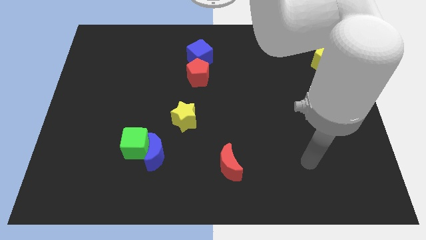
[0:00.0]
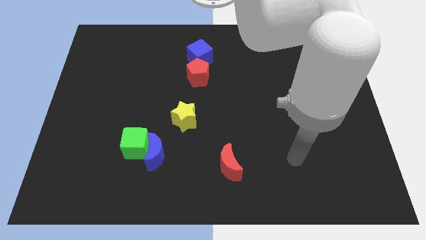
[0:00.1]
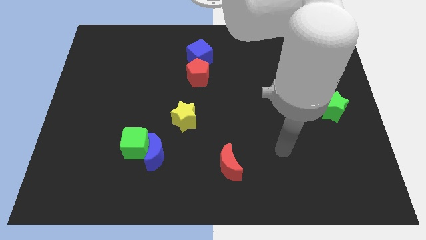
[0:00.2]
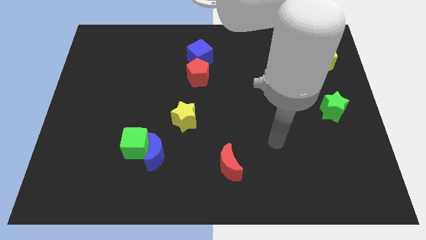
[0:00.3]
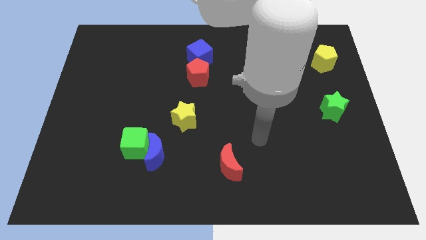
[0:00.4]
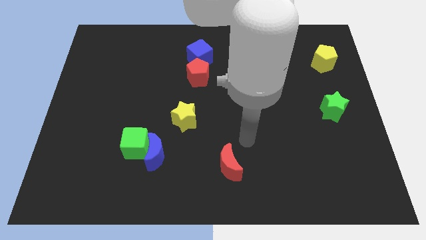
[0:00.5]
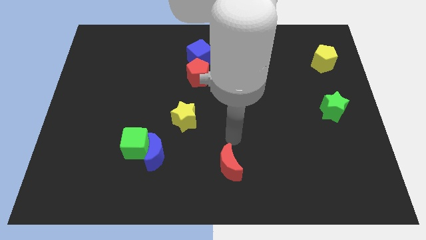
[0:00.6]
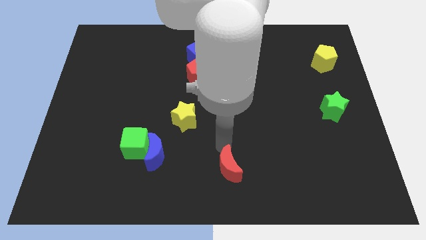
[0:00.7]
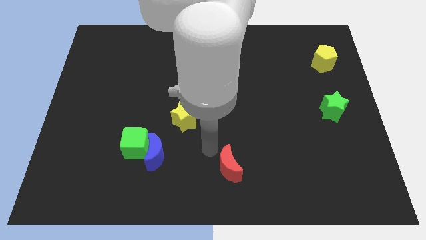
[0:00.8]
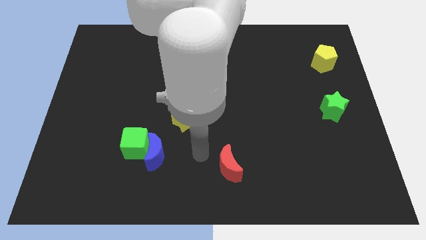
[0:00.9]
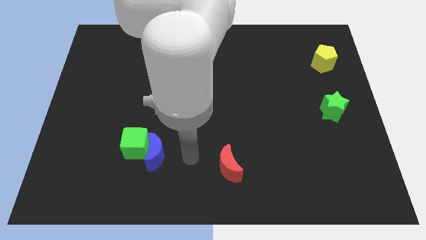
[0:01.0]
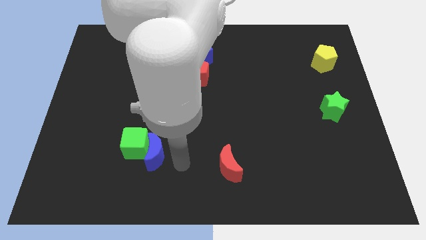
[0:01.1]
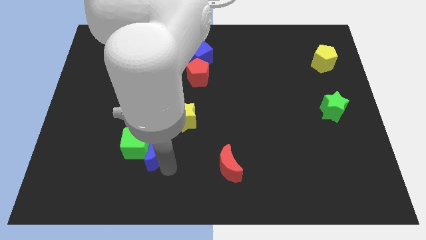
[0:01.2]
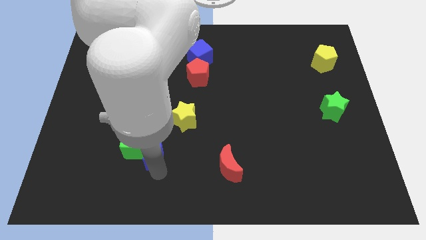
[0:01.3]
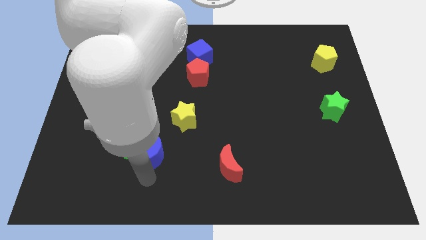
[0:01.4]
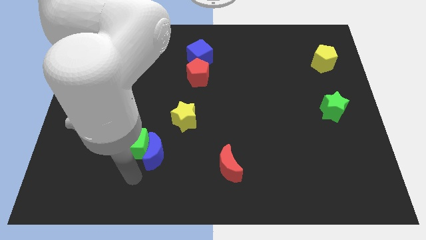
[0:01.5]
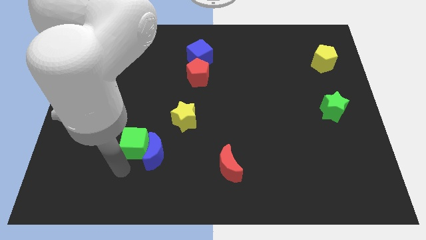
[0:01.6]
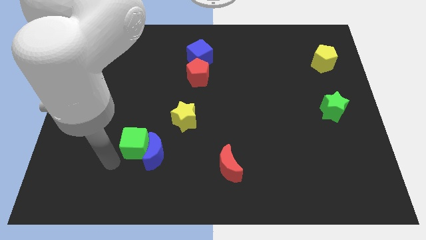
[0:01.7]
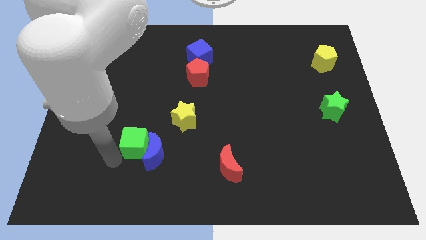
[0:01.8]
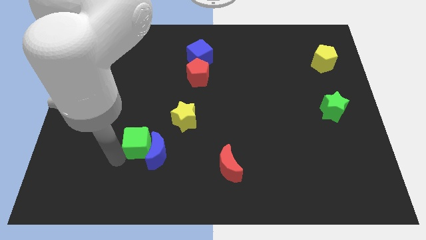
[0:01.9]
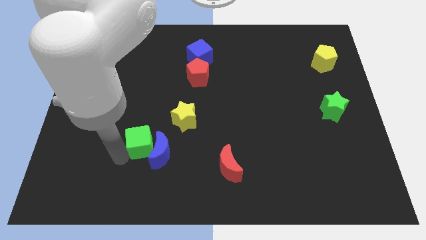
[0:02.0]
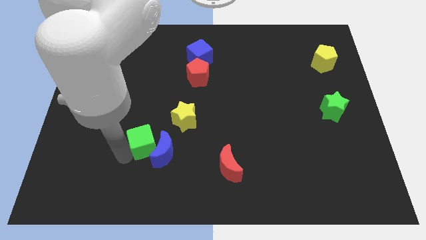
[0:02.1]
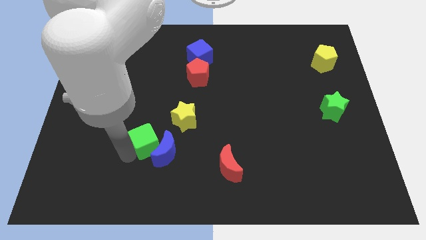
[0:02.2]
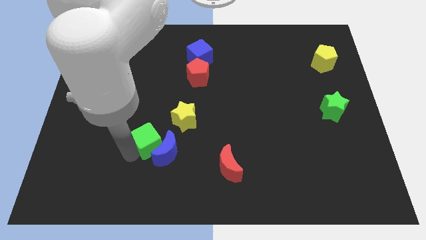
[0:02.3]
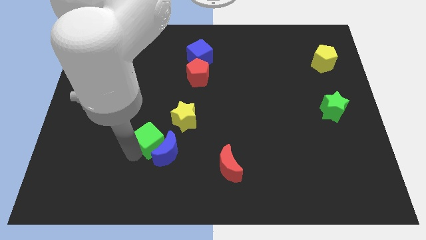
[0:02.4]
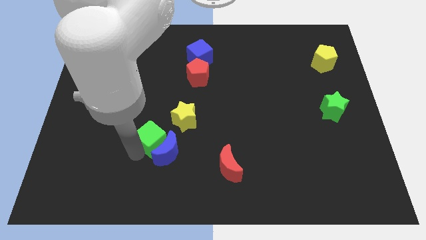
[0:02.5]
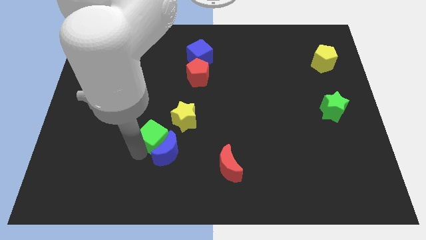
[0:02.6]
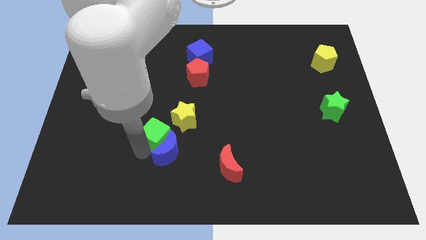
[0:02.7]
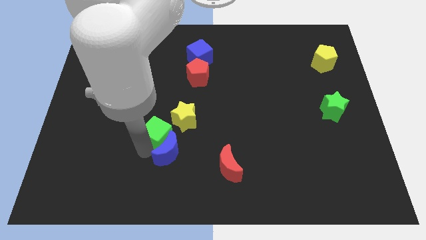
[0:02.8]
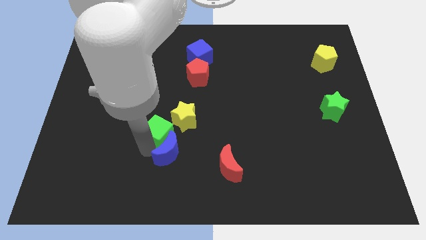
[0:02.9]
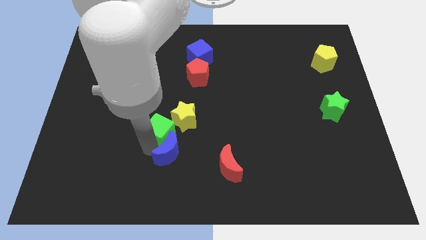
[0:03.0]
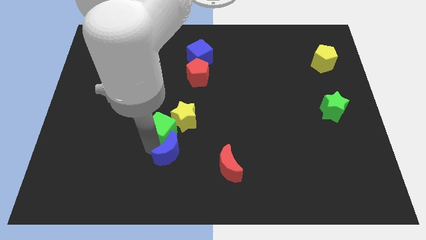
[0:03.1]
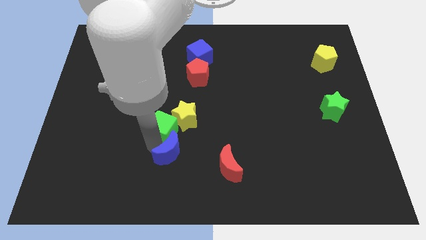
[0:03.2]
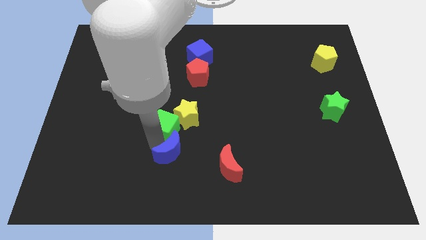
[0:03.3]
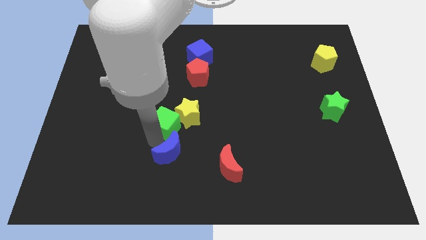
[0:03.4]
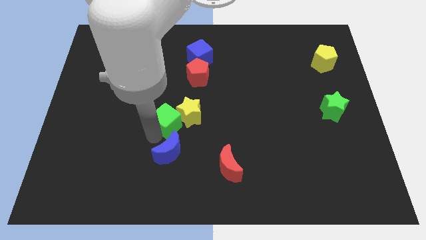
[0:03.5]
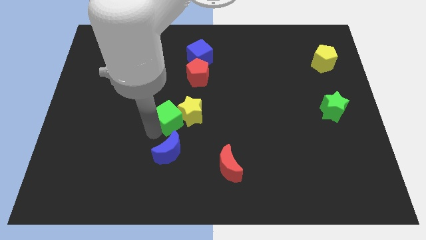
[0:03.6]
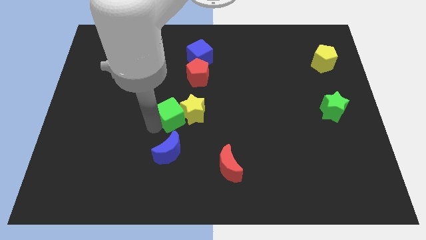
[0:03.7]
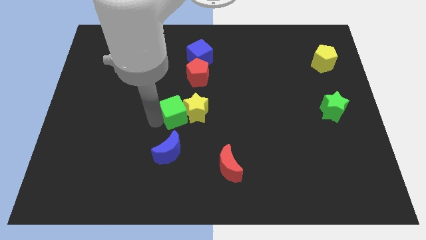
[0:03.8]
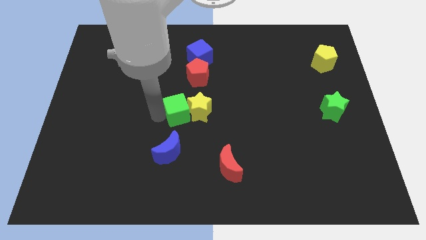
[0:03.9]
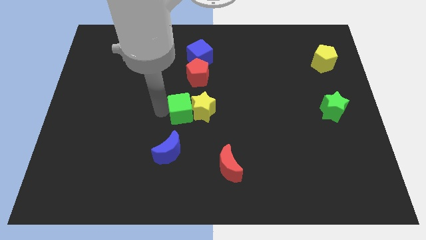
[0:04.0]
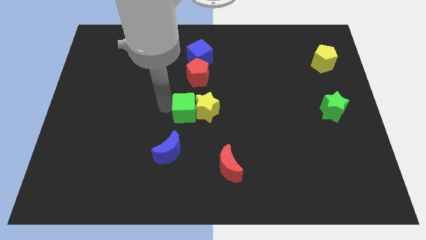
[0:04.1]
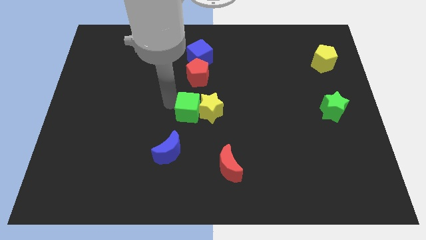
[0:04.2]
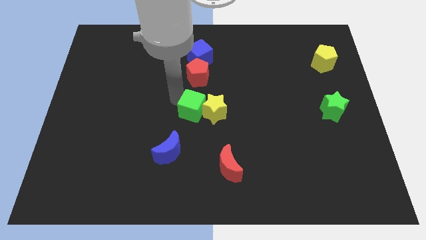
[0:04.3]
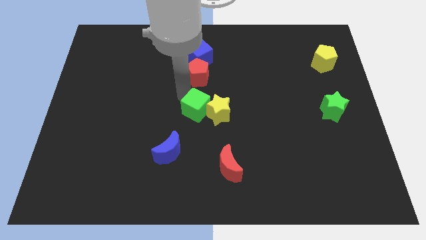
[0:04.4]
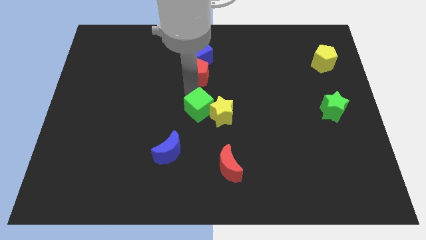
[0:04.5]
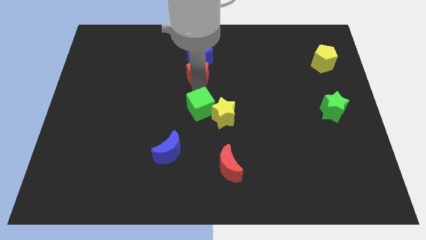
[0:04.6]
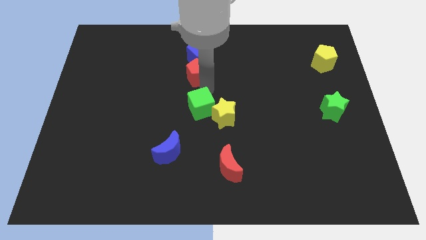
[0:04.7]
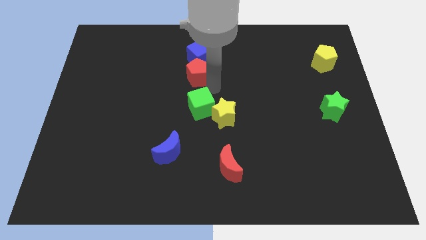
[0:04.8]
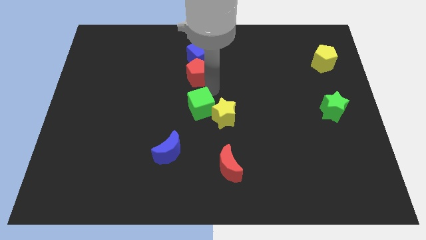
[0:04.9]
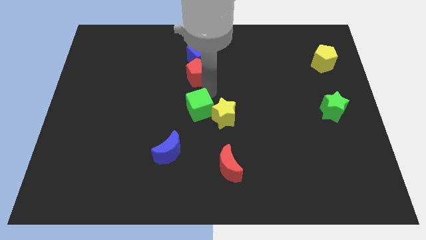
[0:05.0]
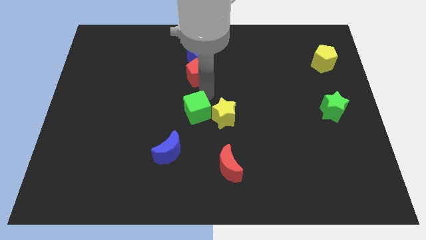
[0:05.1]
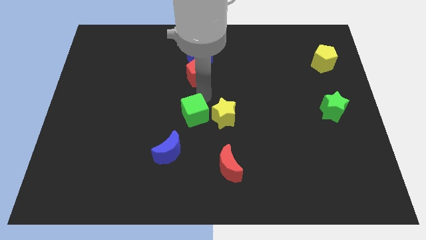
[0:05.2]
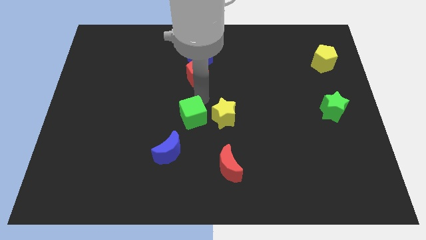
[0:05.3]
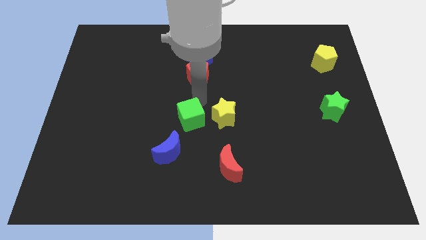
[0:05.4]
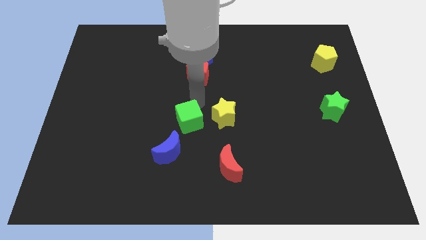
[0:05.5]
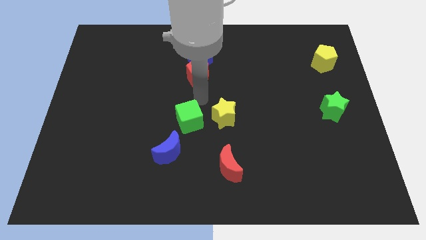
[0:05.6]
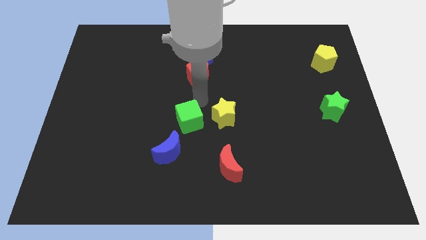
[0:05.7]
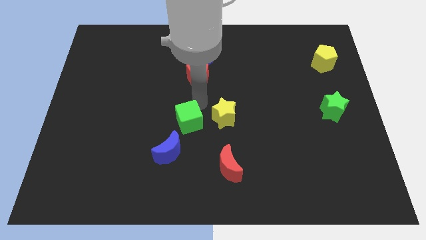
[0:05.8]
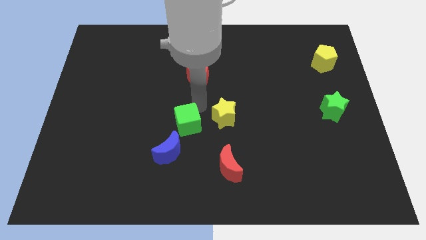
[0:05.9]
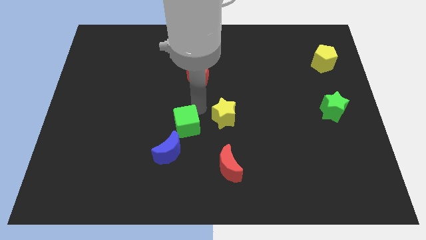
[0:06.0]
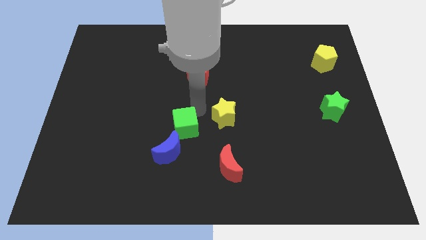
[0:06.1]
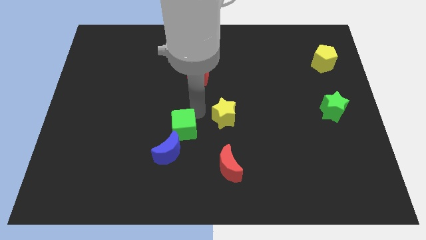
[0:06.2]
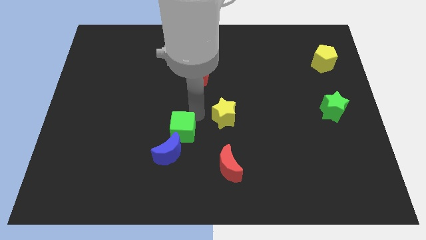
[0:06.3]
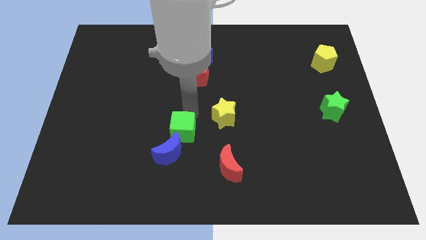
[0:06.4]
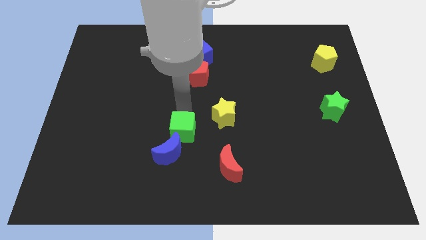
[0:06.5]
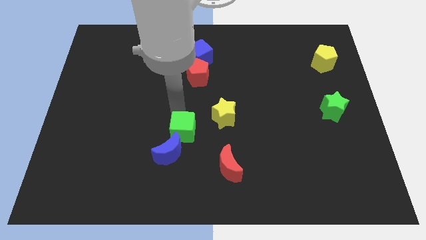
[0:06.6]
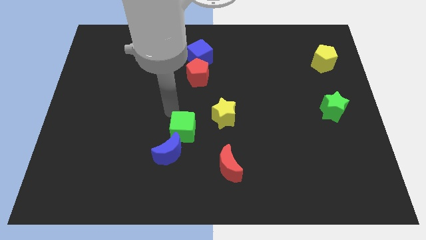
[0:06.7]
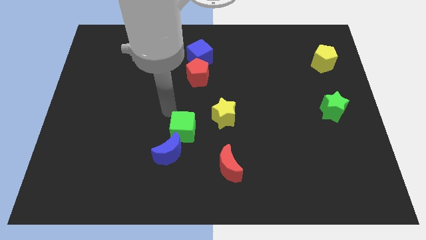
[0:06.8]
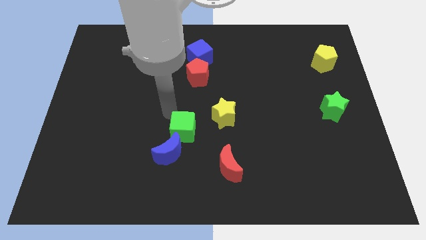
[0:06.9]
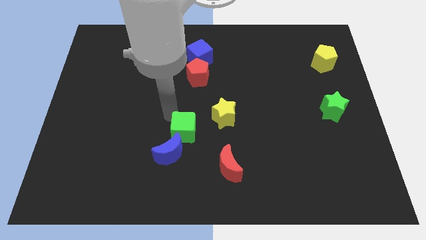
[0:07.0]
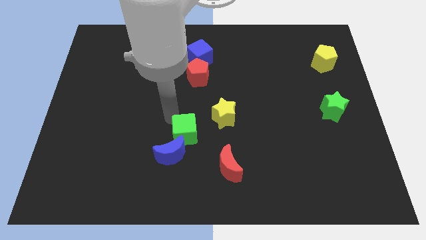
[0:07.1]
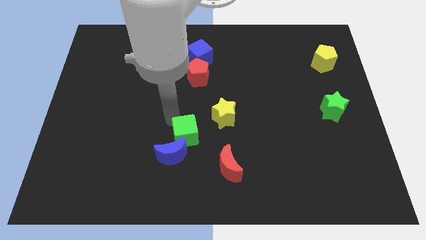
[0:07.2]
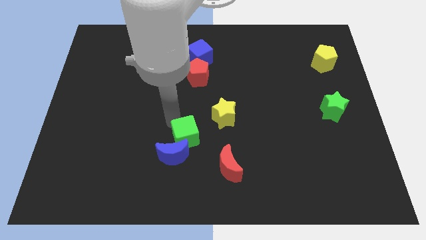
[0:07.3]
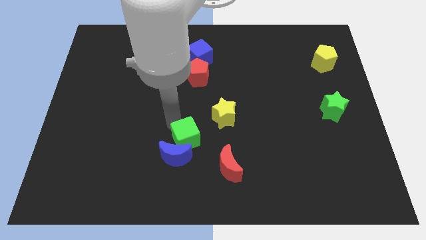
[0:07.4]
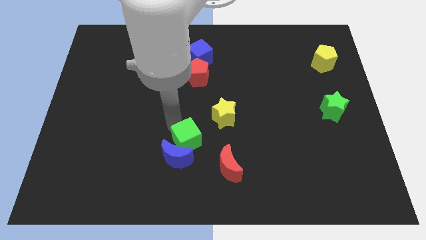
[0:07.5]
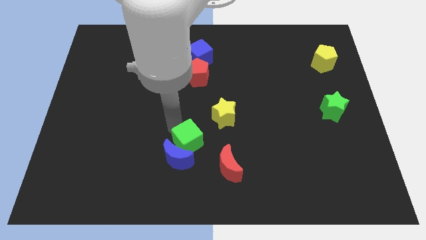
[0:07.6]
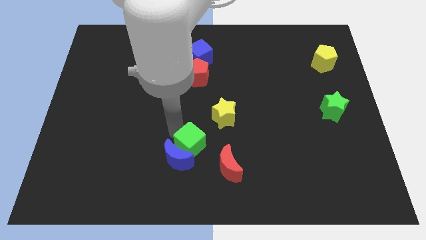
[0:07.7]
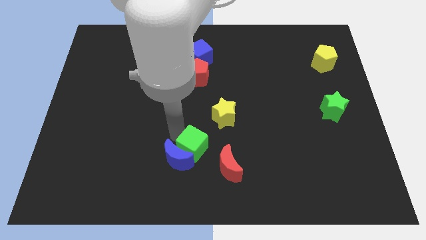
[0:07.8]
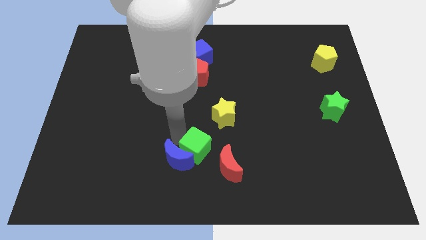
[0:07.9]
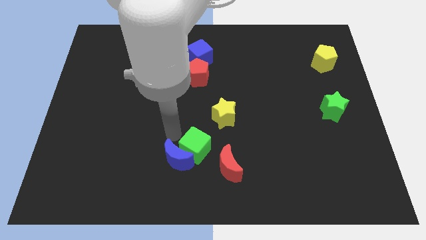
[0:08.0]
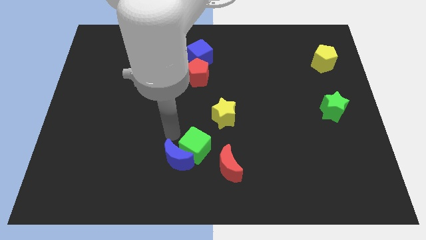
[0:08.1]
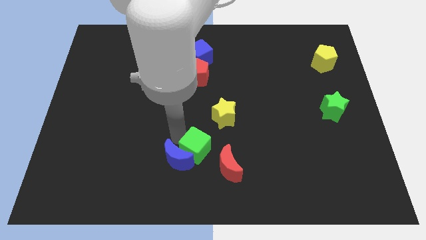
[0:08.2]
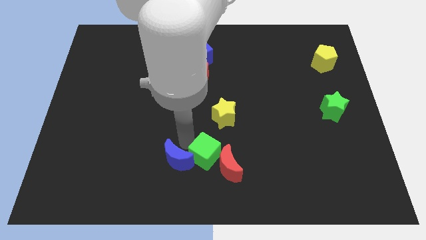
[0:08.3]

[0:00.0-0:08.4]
push the green cube next to the red moon
